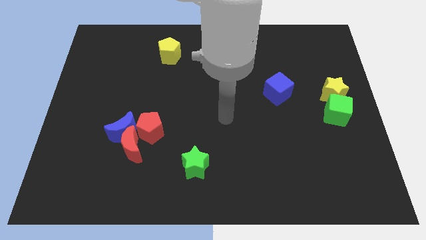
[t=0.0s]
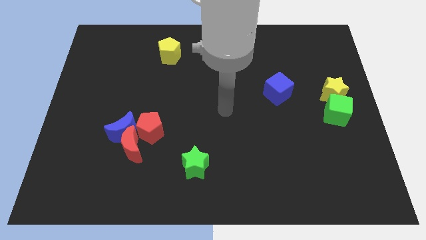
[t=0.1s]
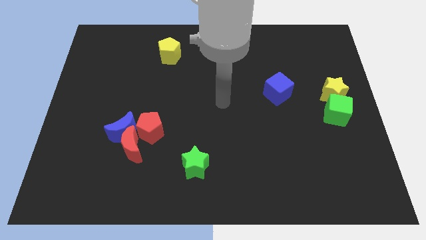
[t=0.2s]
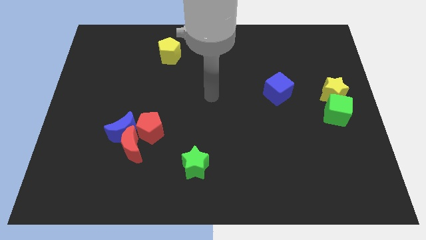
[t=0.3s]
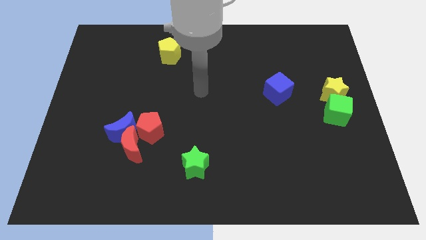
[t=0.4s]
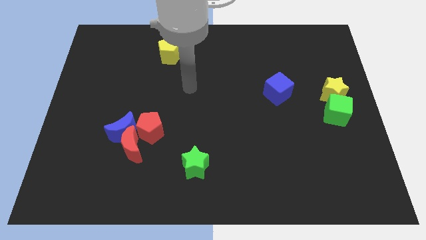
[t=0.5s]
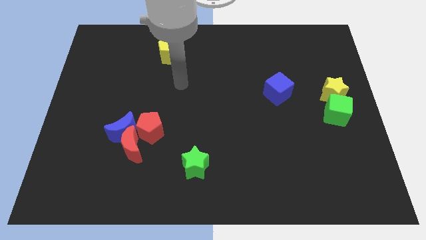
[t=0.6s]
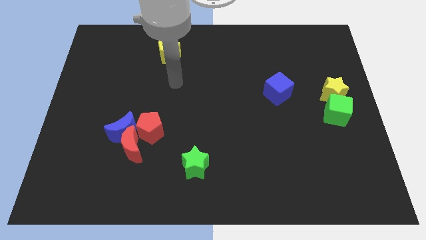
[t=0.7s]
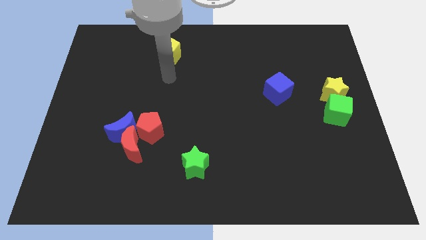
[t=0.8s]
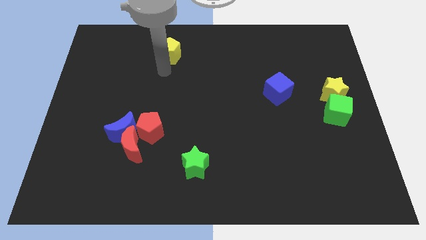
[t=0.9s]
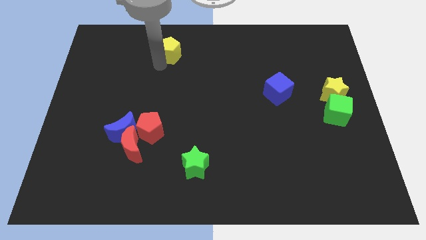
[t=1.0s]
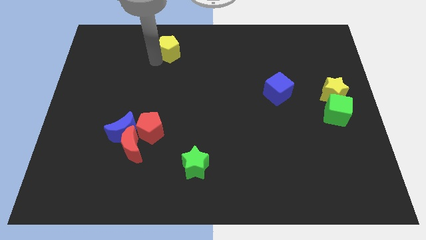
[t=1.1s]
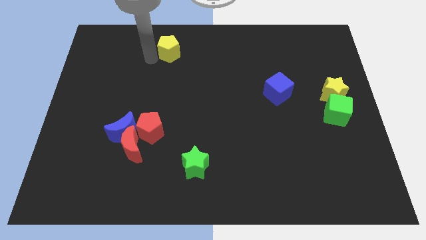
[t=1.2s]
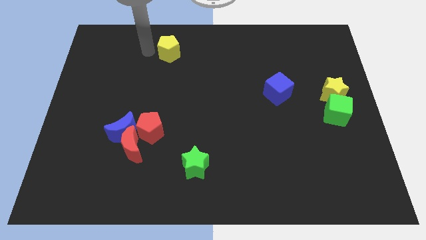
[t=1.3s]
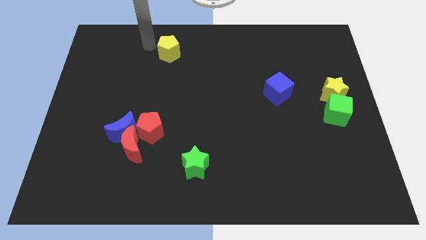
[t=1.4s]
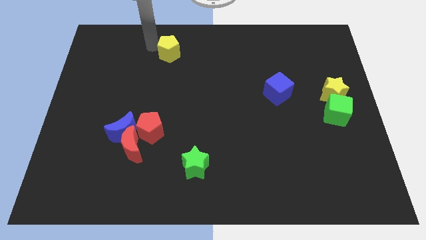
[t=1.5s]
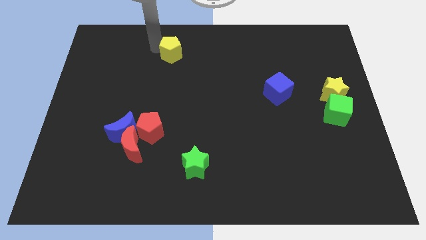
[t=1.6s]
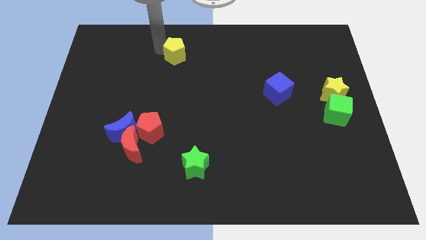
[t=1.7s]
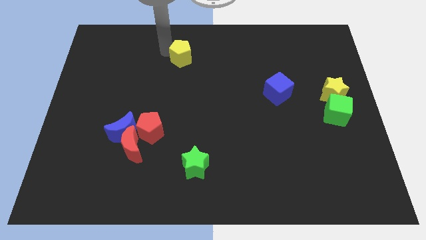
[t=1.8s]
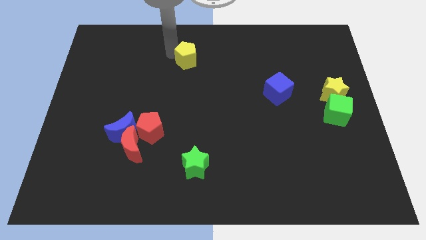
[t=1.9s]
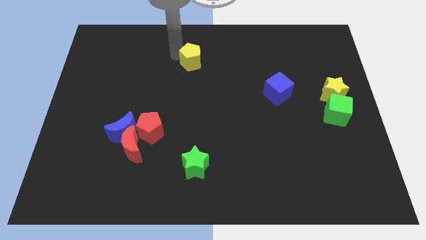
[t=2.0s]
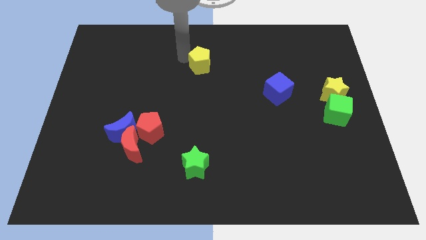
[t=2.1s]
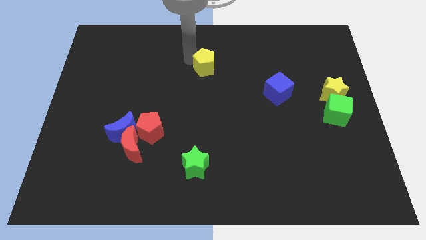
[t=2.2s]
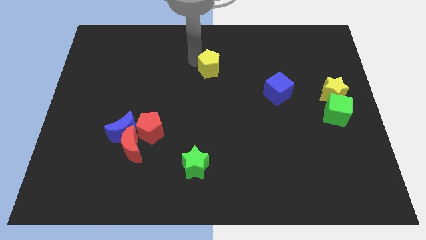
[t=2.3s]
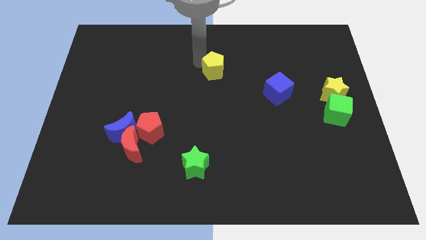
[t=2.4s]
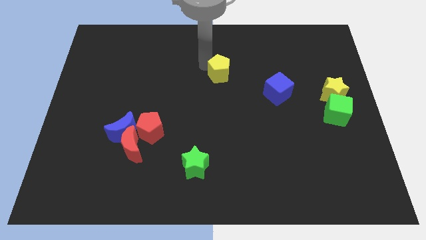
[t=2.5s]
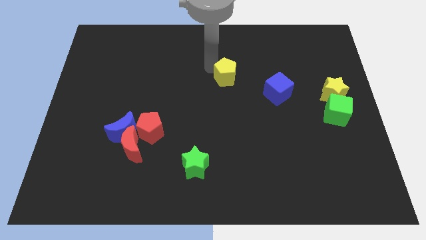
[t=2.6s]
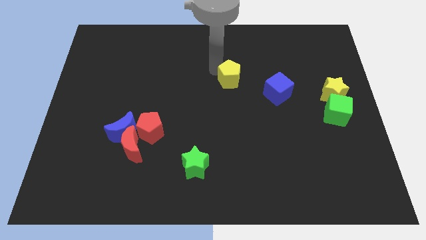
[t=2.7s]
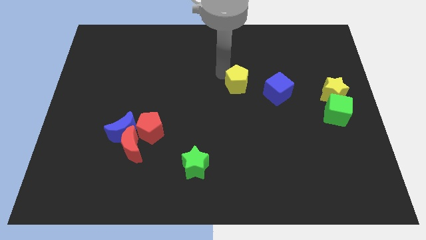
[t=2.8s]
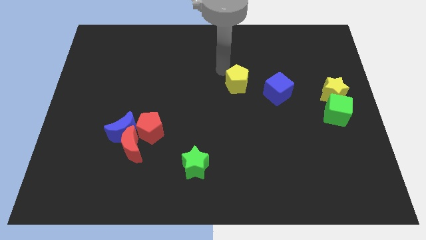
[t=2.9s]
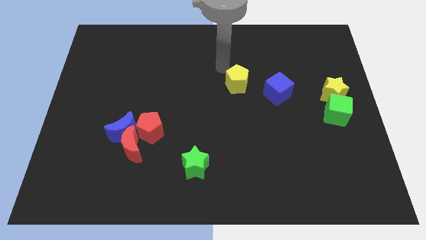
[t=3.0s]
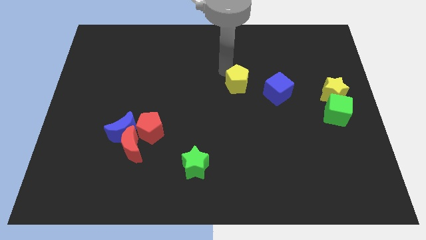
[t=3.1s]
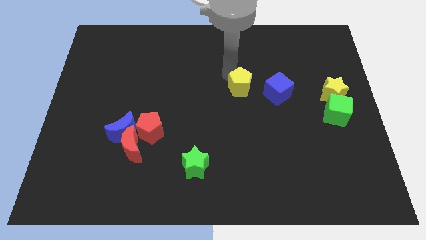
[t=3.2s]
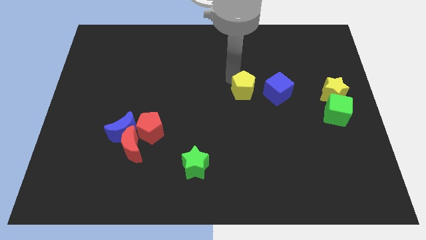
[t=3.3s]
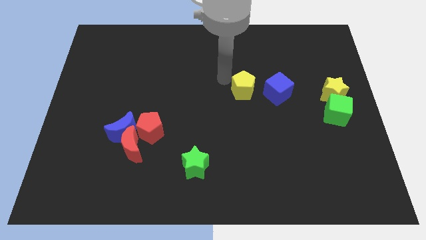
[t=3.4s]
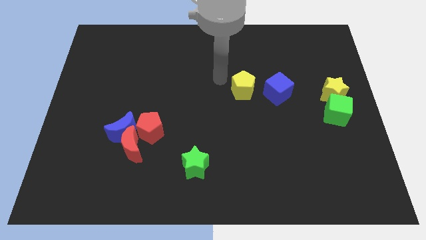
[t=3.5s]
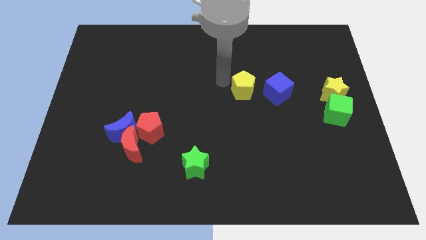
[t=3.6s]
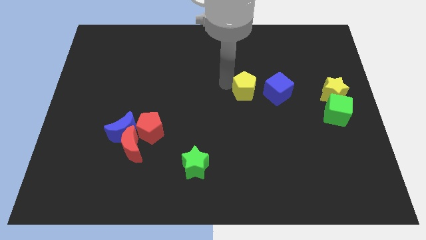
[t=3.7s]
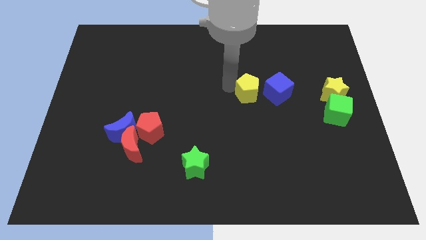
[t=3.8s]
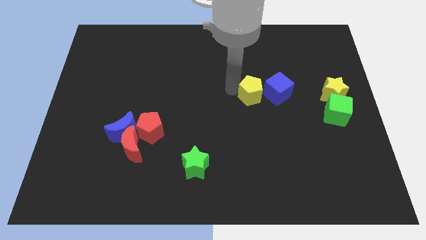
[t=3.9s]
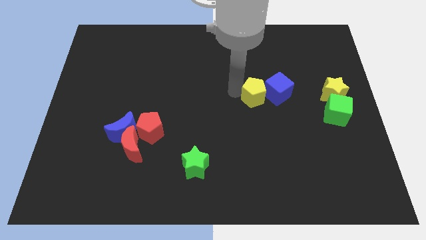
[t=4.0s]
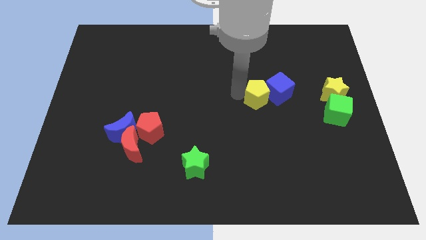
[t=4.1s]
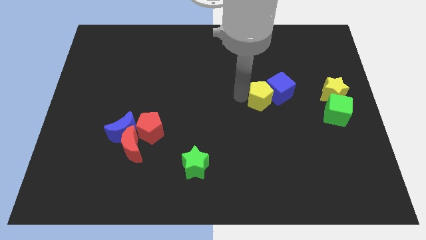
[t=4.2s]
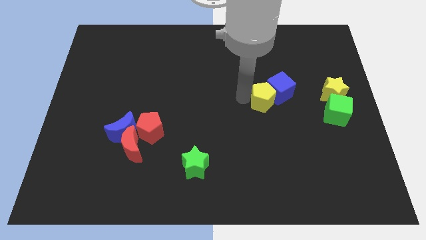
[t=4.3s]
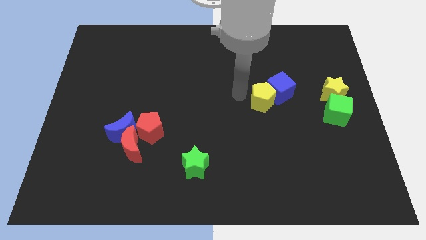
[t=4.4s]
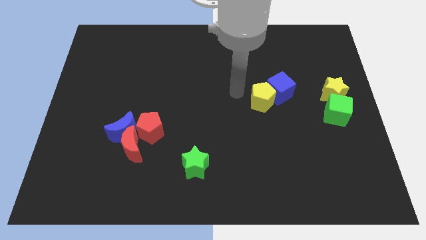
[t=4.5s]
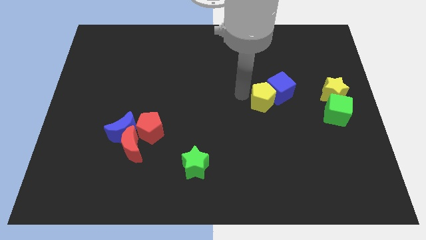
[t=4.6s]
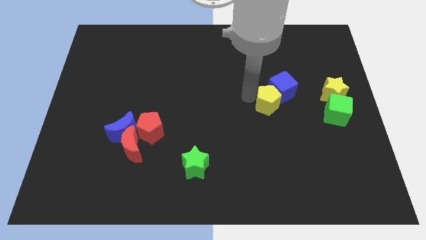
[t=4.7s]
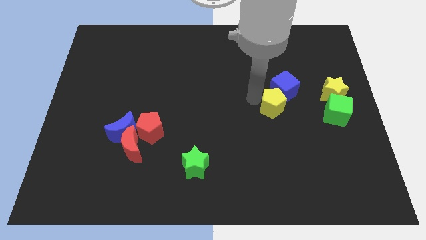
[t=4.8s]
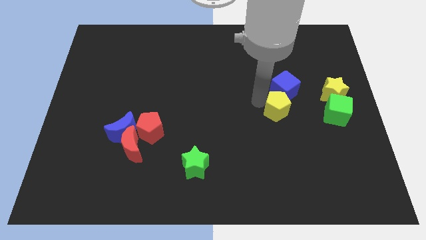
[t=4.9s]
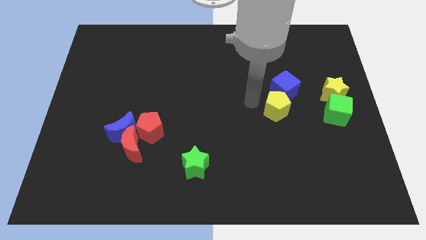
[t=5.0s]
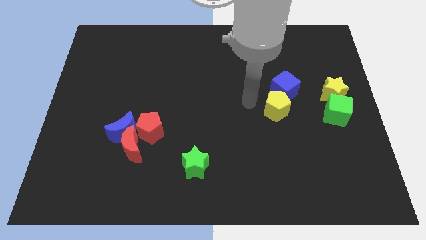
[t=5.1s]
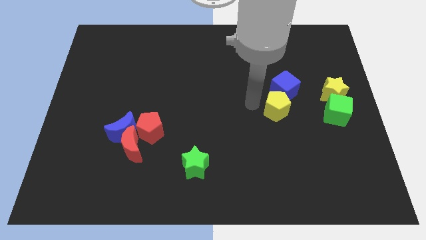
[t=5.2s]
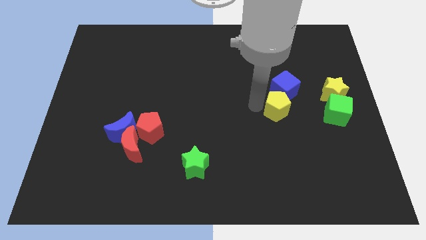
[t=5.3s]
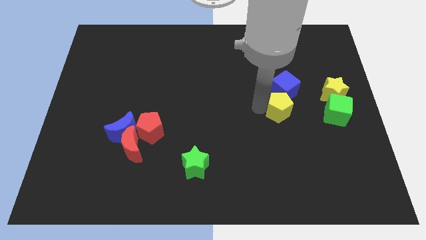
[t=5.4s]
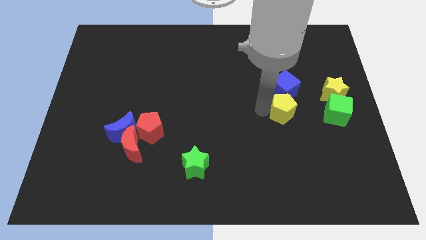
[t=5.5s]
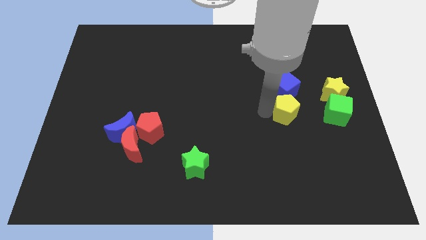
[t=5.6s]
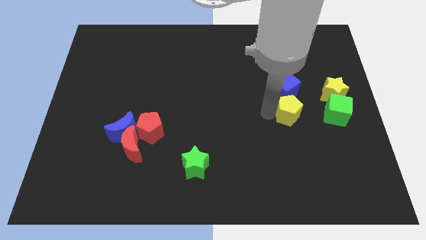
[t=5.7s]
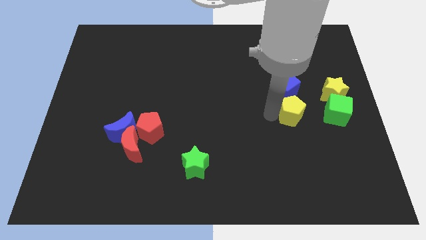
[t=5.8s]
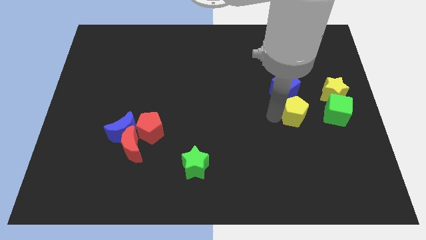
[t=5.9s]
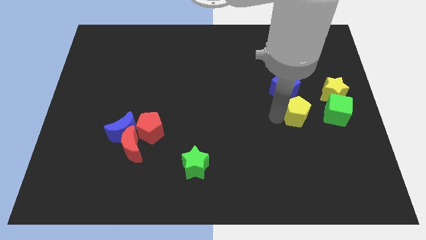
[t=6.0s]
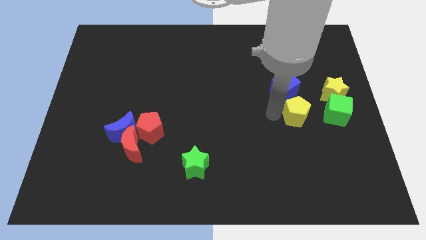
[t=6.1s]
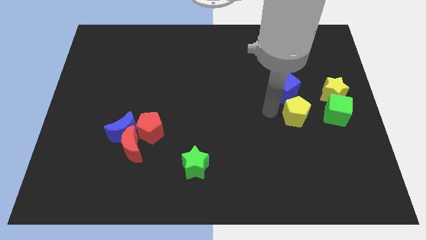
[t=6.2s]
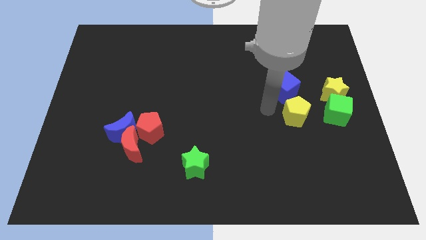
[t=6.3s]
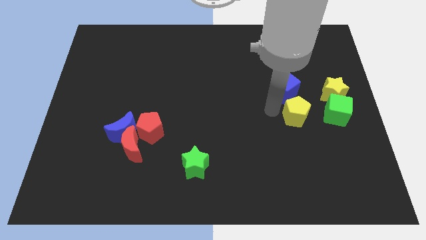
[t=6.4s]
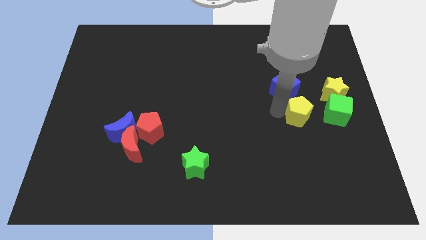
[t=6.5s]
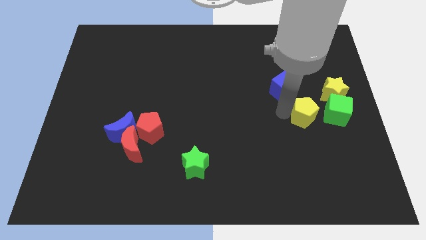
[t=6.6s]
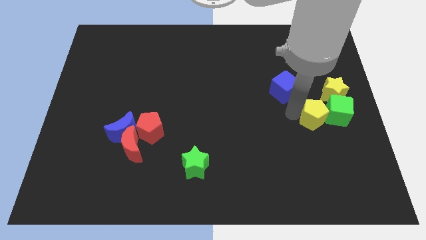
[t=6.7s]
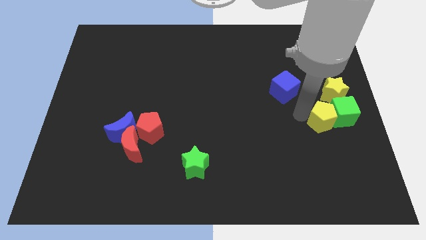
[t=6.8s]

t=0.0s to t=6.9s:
move the yellow pentagon to the bottom of the yellow star
